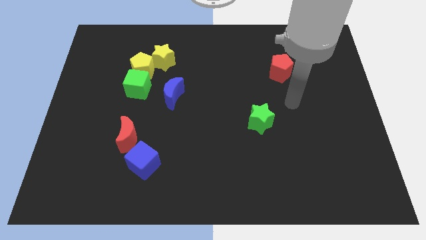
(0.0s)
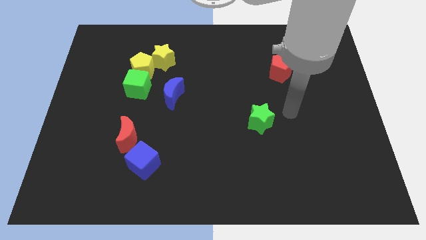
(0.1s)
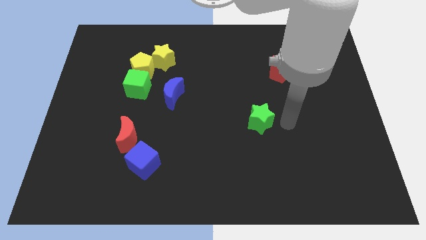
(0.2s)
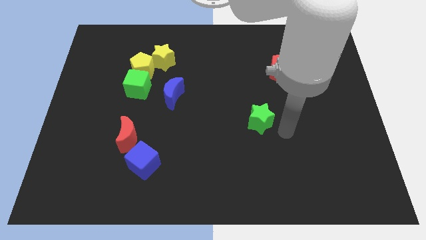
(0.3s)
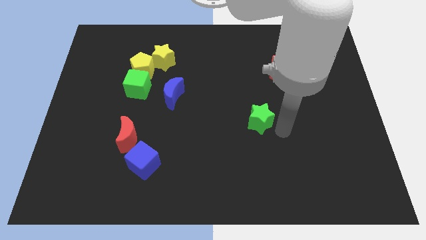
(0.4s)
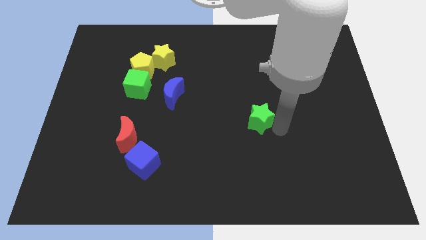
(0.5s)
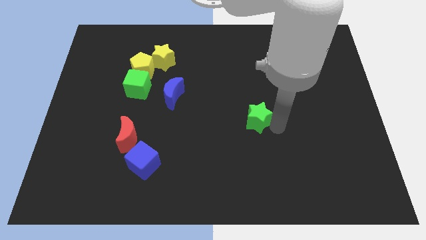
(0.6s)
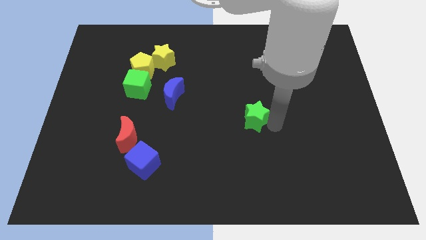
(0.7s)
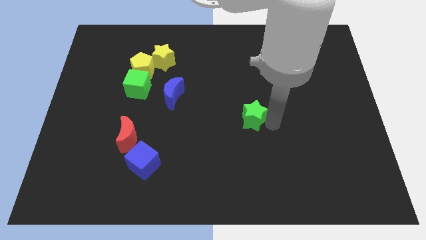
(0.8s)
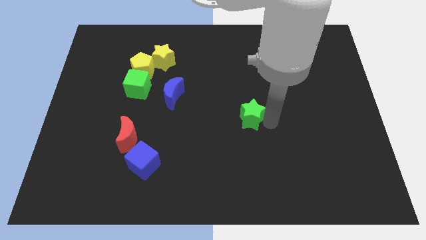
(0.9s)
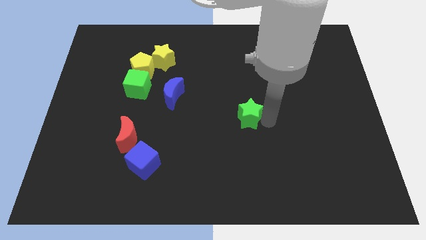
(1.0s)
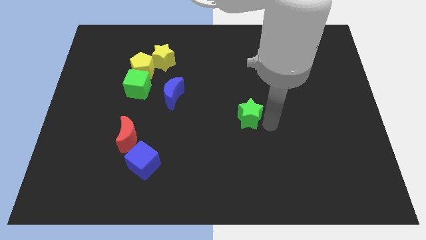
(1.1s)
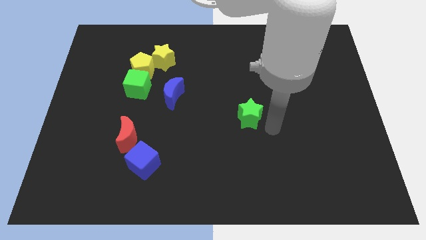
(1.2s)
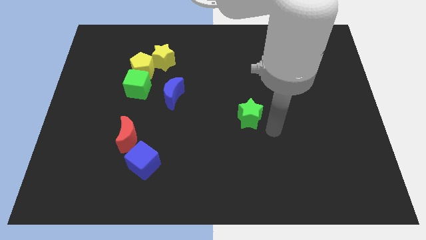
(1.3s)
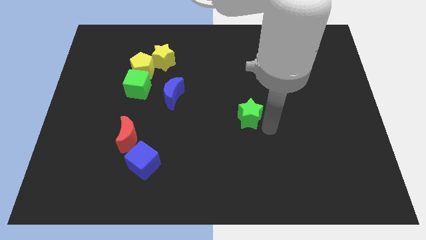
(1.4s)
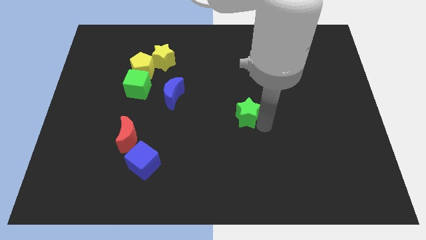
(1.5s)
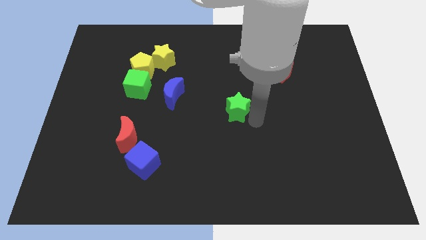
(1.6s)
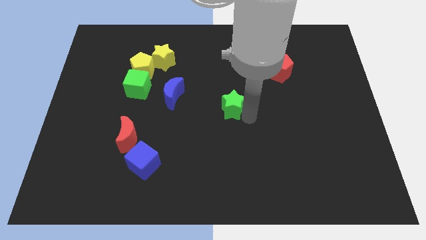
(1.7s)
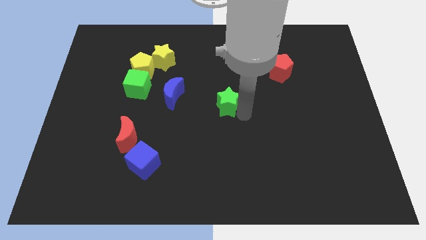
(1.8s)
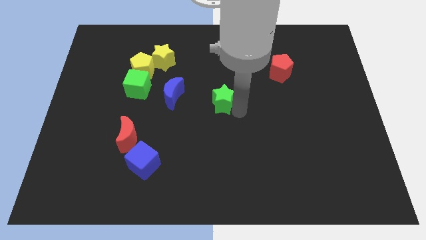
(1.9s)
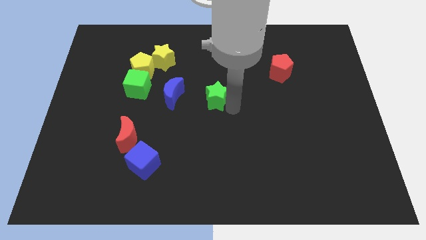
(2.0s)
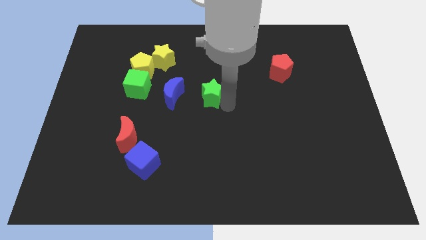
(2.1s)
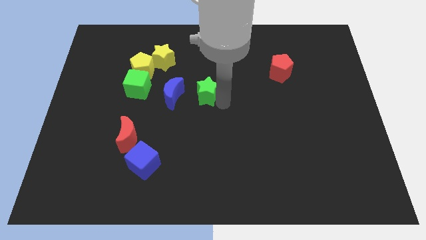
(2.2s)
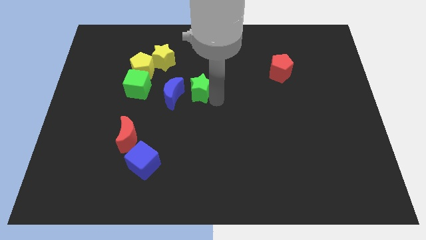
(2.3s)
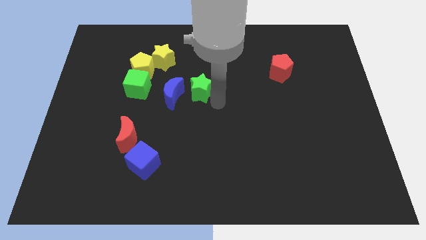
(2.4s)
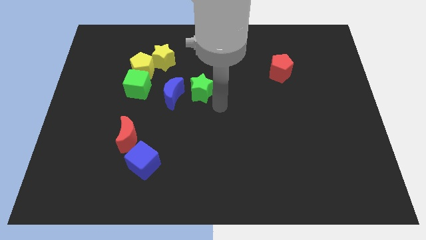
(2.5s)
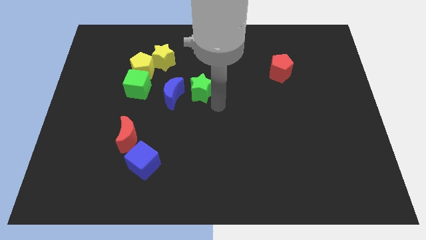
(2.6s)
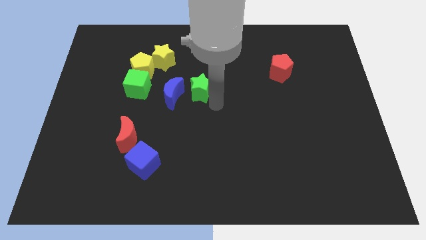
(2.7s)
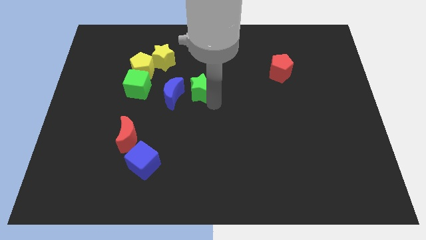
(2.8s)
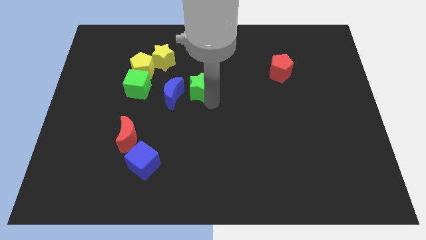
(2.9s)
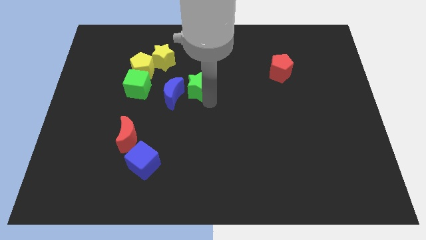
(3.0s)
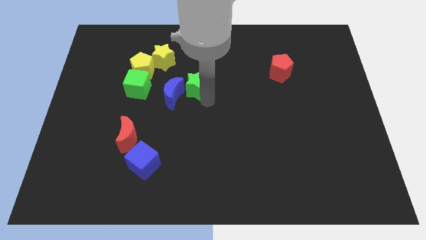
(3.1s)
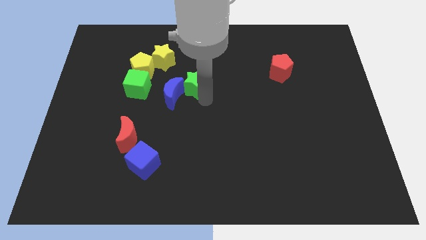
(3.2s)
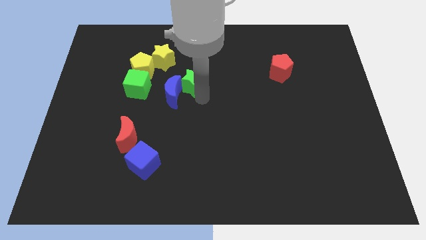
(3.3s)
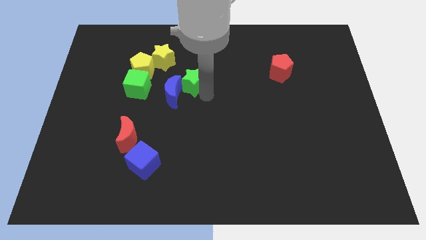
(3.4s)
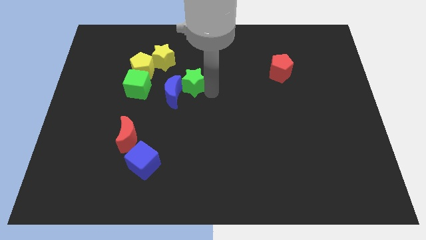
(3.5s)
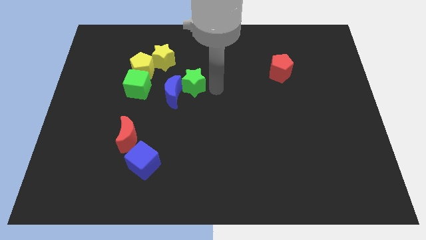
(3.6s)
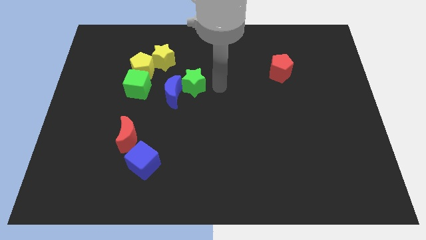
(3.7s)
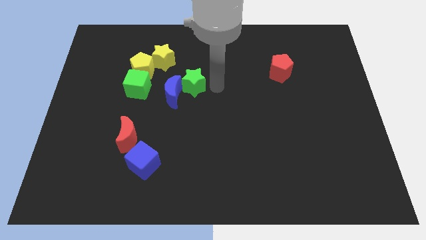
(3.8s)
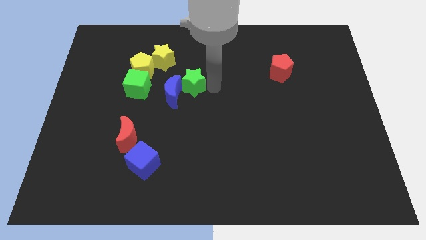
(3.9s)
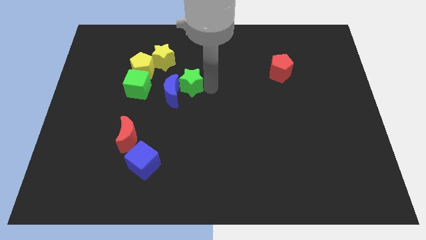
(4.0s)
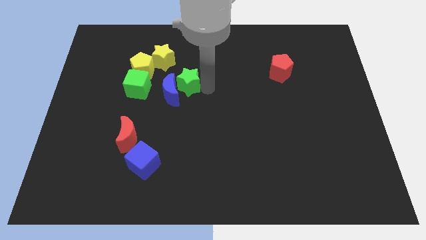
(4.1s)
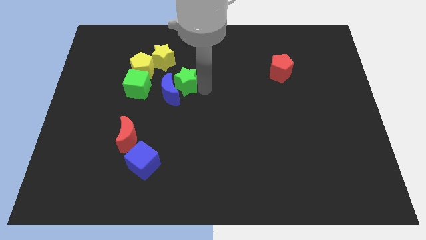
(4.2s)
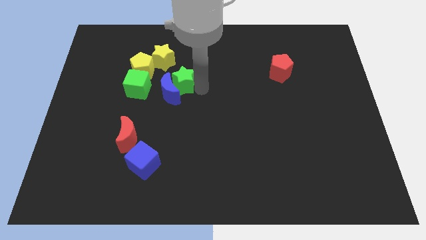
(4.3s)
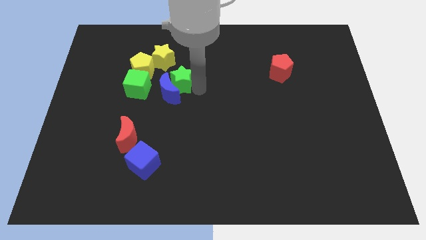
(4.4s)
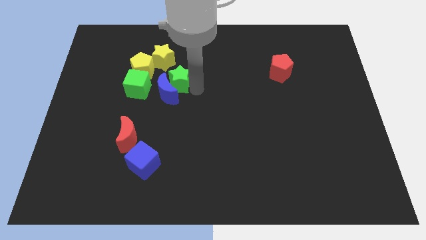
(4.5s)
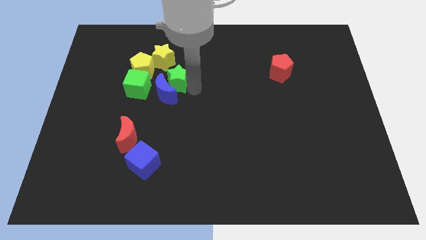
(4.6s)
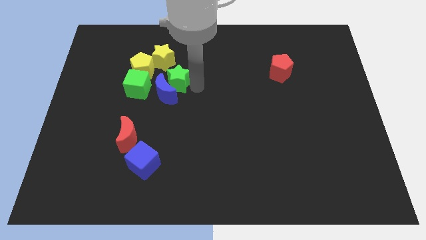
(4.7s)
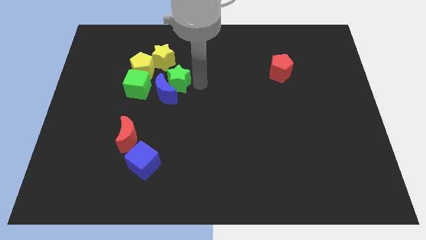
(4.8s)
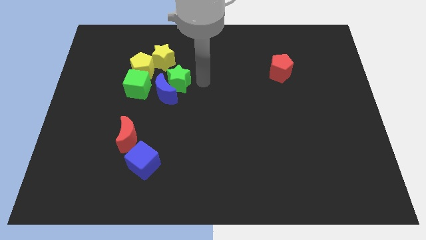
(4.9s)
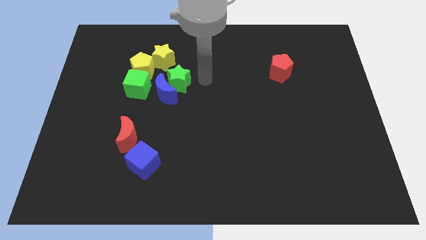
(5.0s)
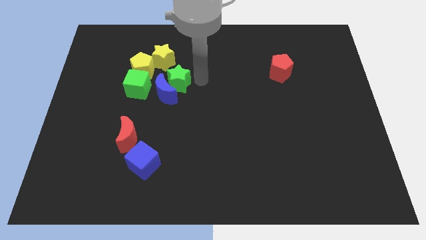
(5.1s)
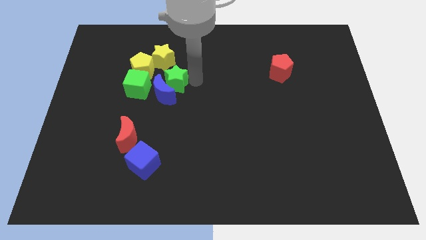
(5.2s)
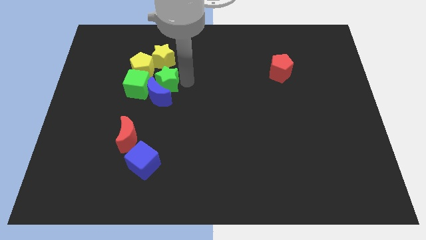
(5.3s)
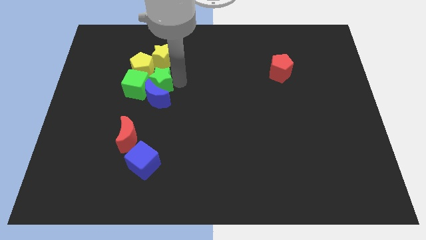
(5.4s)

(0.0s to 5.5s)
move the green star towards the green cube

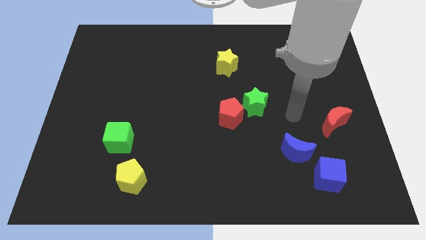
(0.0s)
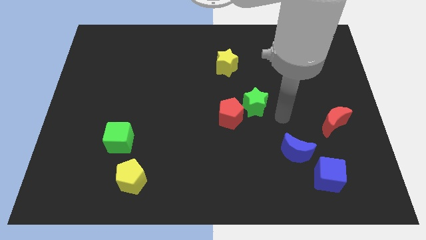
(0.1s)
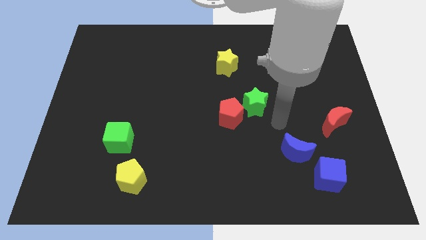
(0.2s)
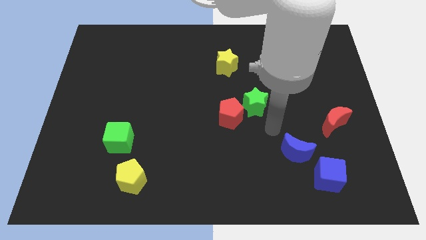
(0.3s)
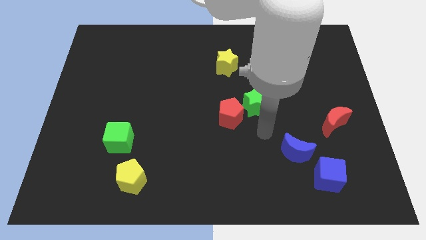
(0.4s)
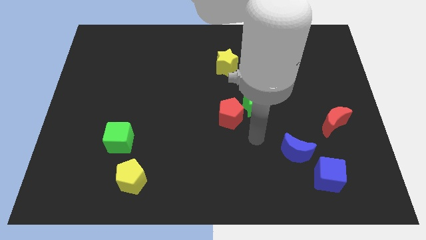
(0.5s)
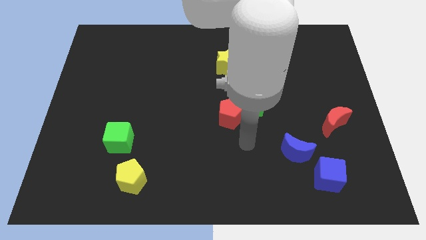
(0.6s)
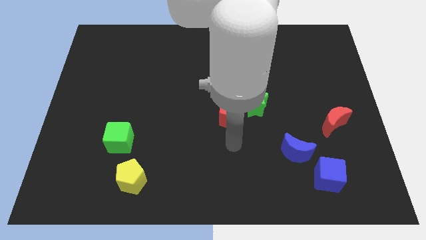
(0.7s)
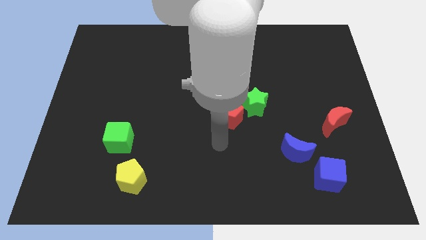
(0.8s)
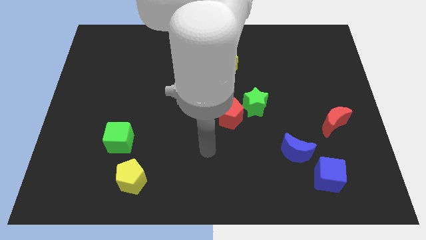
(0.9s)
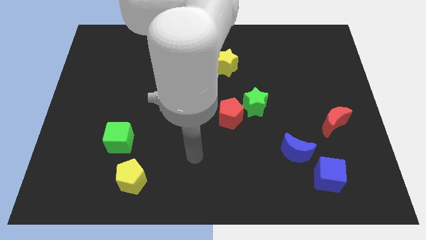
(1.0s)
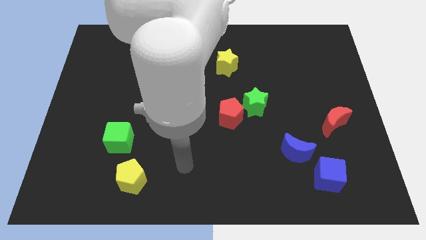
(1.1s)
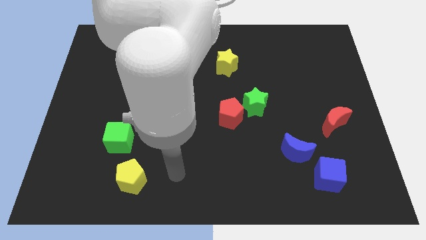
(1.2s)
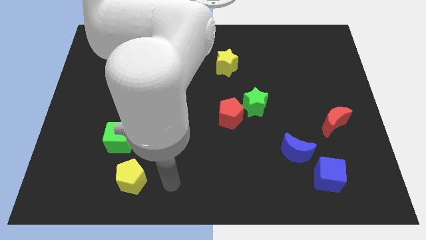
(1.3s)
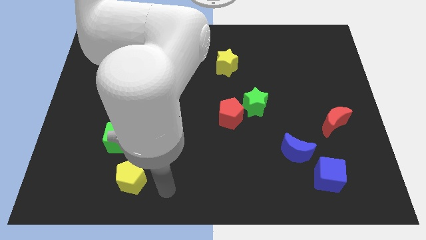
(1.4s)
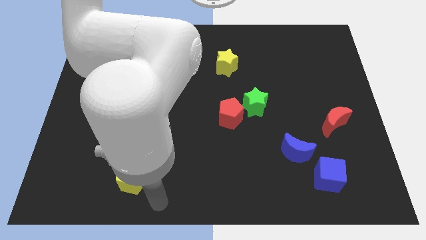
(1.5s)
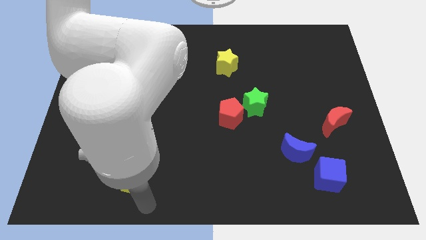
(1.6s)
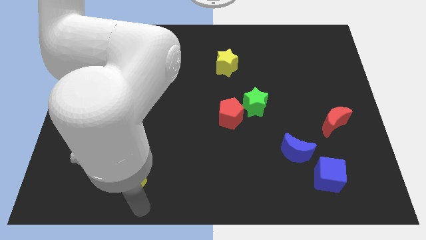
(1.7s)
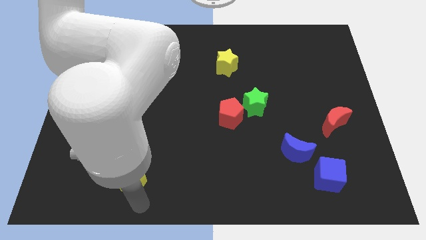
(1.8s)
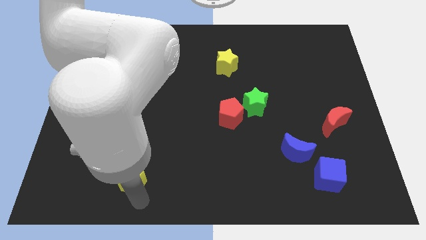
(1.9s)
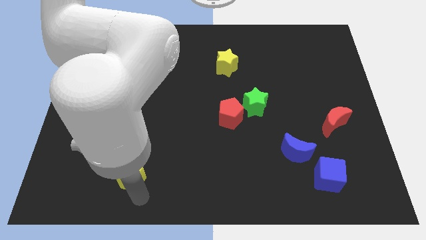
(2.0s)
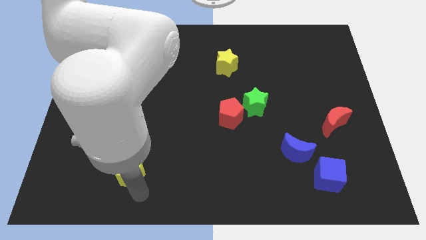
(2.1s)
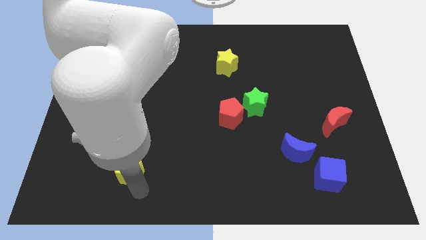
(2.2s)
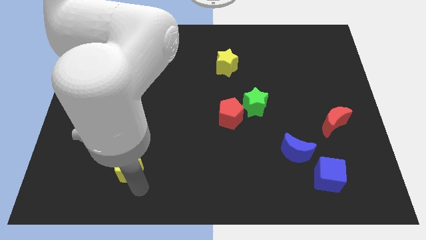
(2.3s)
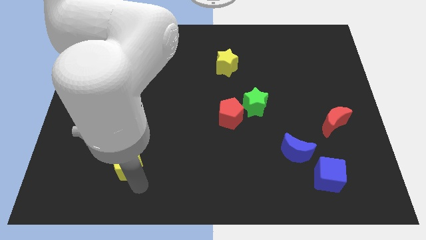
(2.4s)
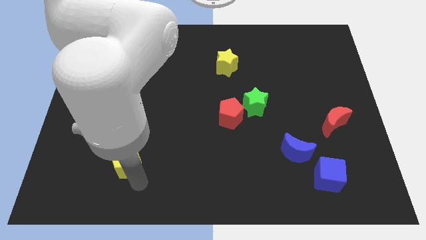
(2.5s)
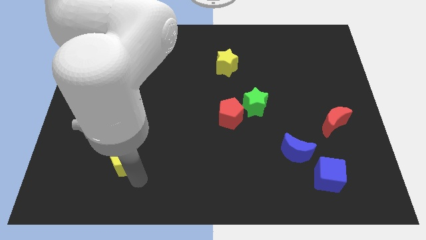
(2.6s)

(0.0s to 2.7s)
move the yellow pentagon to the green cube
